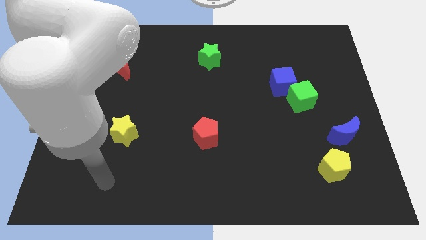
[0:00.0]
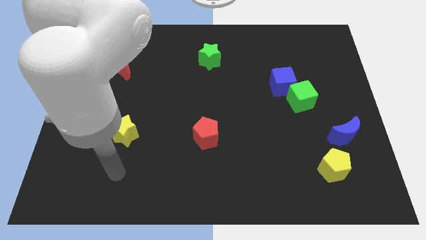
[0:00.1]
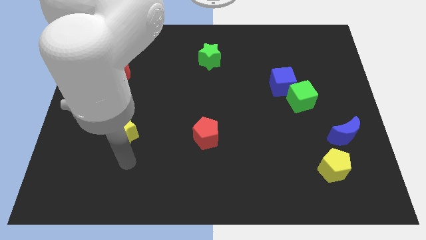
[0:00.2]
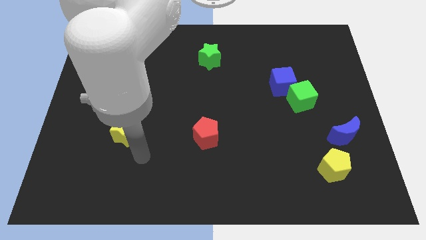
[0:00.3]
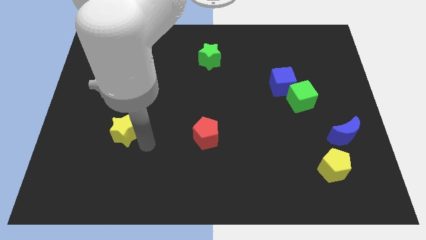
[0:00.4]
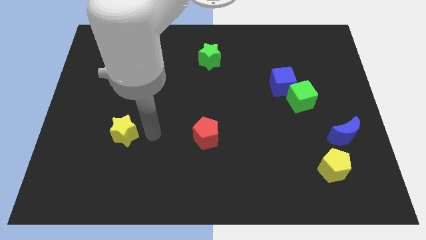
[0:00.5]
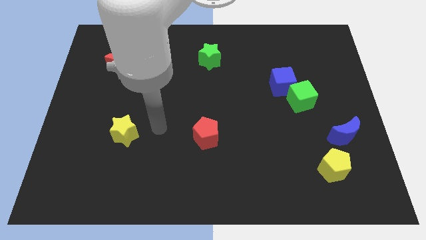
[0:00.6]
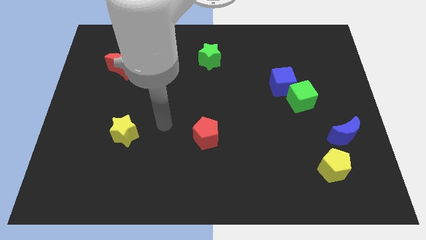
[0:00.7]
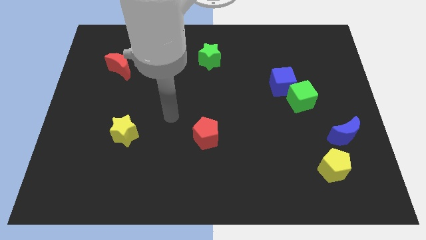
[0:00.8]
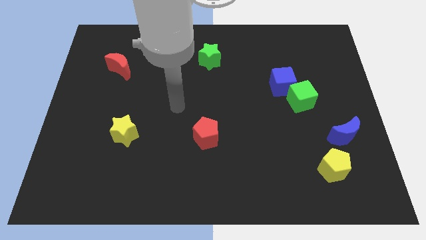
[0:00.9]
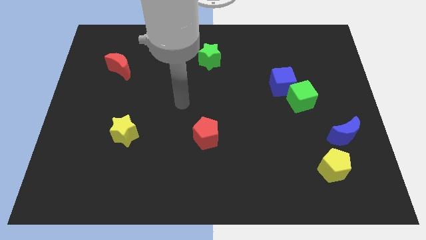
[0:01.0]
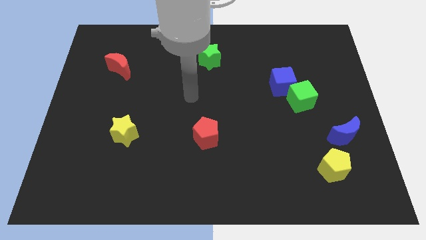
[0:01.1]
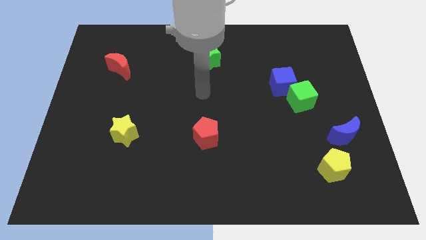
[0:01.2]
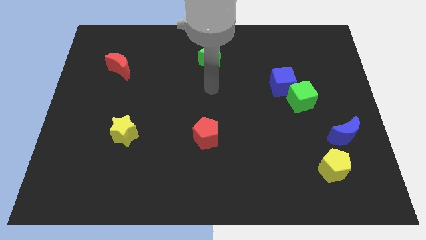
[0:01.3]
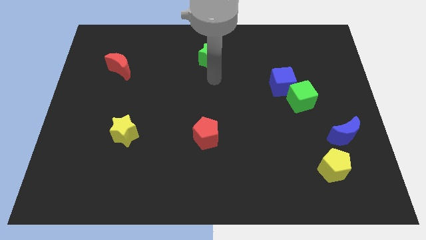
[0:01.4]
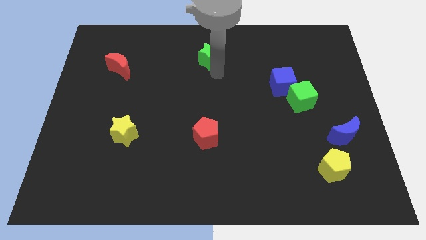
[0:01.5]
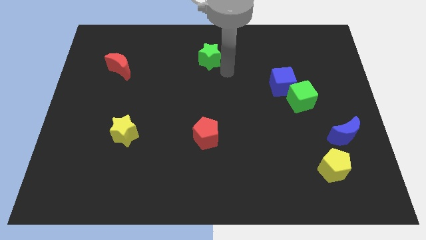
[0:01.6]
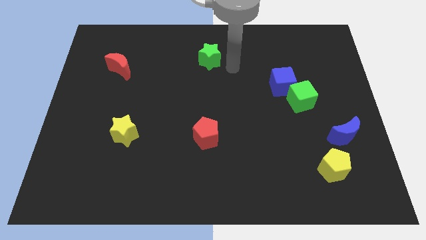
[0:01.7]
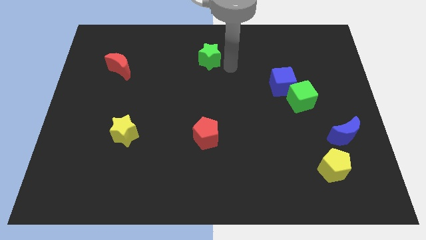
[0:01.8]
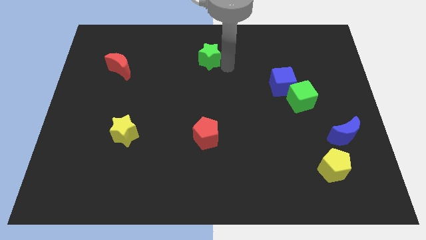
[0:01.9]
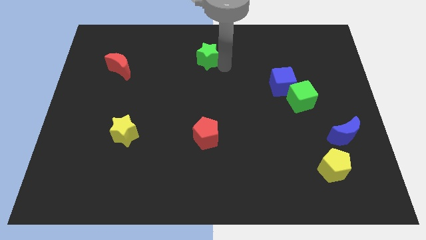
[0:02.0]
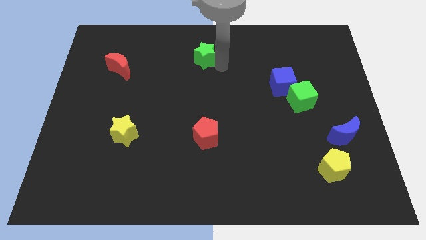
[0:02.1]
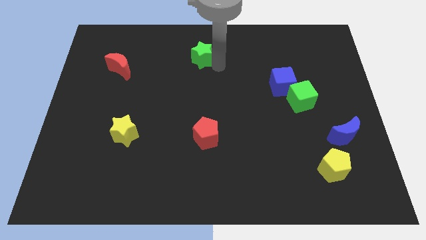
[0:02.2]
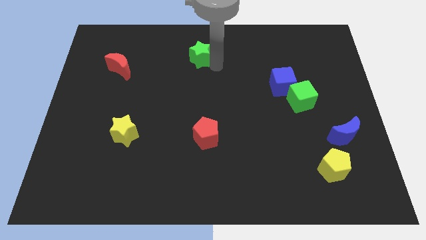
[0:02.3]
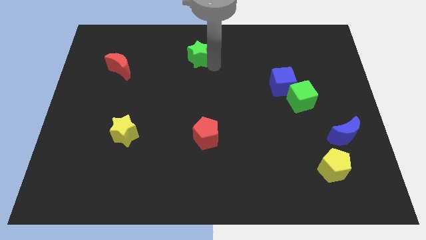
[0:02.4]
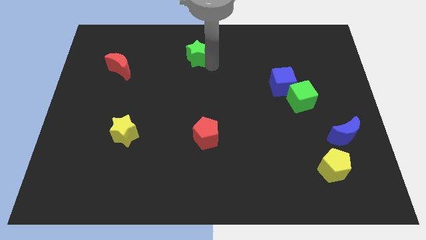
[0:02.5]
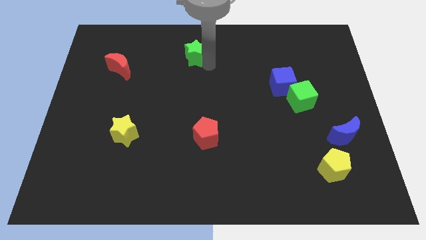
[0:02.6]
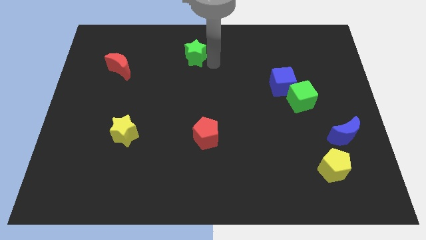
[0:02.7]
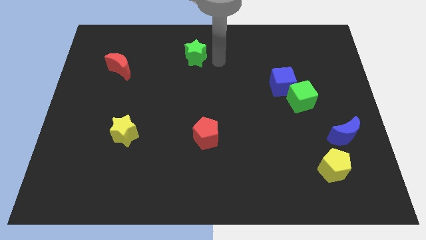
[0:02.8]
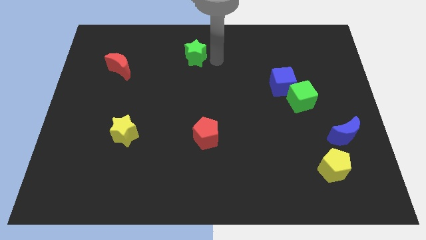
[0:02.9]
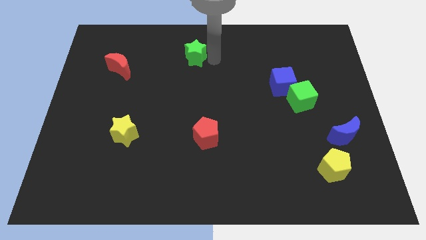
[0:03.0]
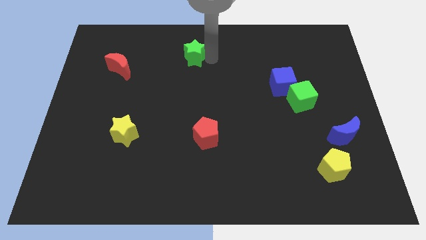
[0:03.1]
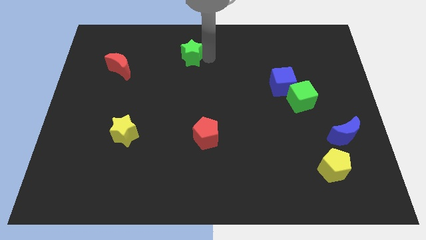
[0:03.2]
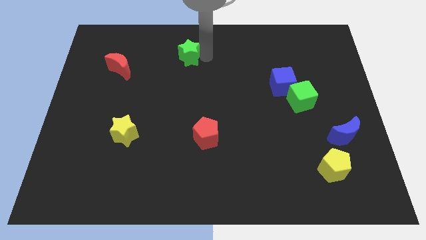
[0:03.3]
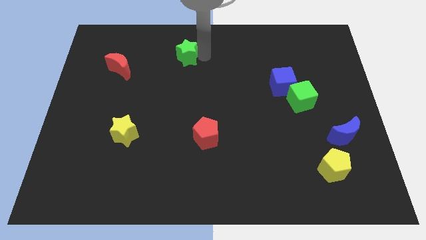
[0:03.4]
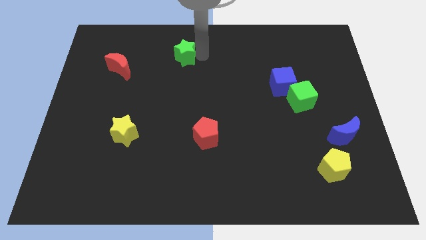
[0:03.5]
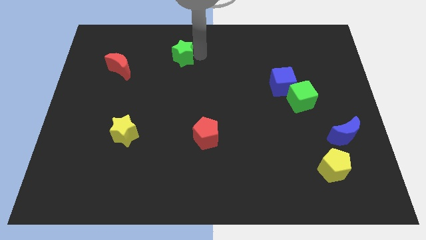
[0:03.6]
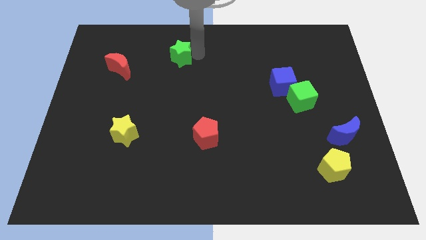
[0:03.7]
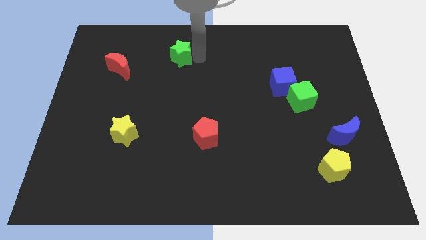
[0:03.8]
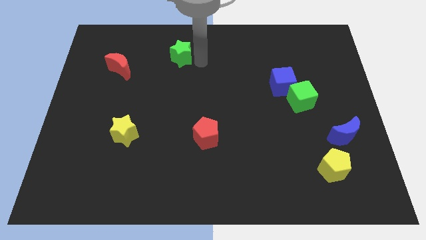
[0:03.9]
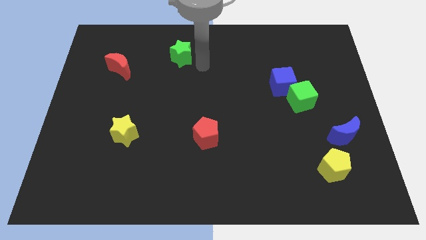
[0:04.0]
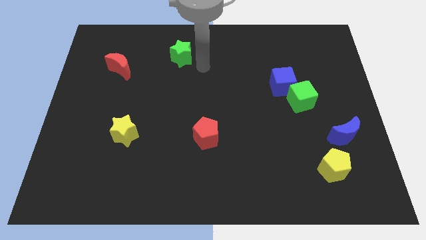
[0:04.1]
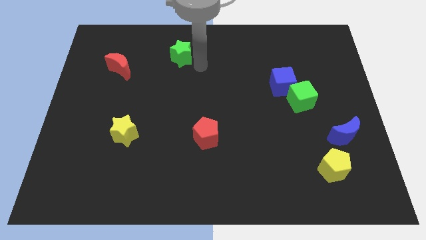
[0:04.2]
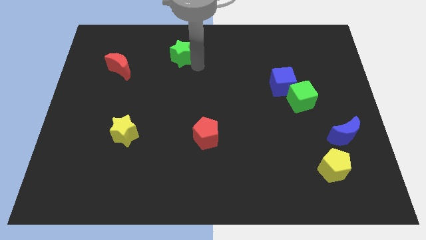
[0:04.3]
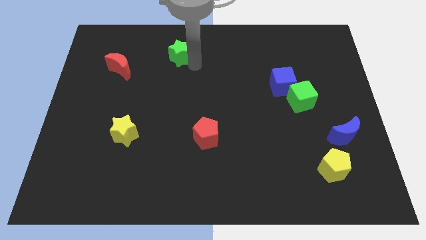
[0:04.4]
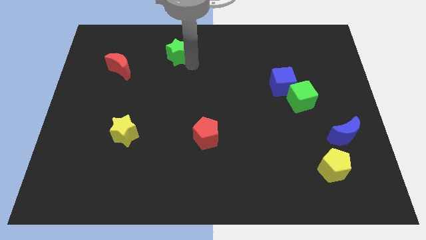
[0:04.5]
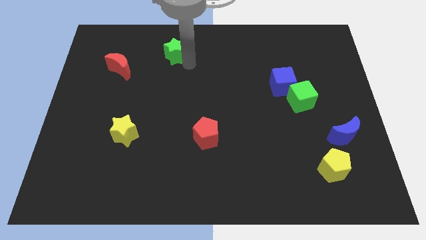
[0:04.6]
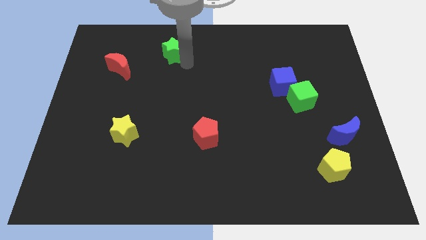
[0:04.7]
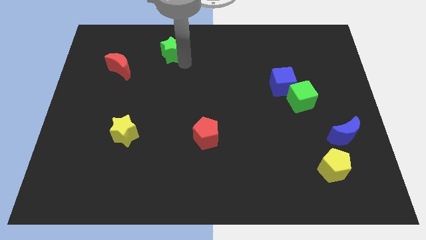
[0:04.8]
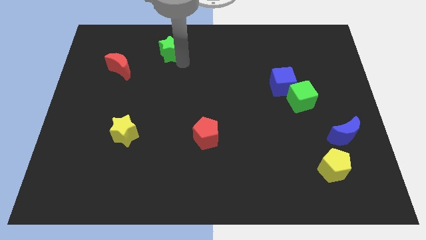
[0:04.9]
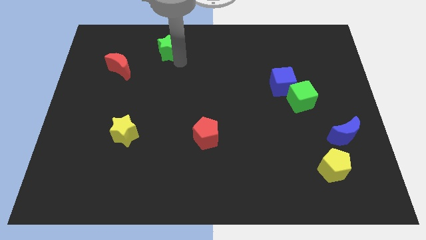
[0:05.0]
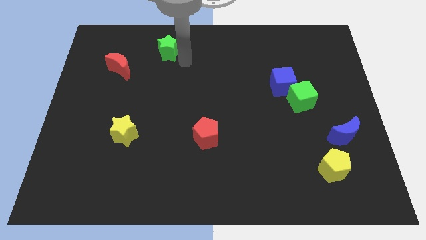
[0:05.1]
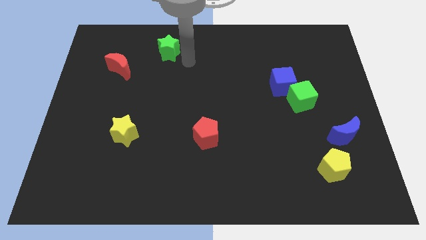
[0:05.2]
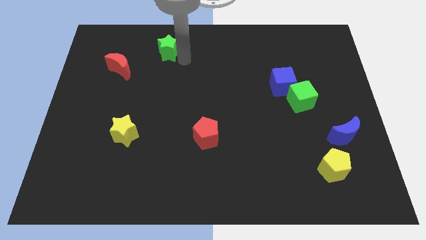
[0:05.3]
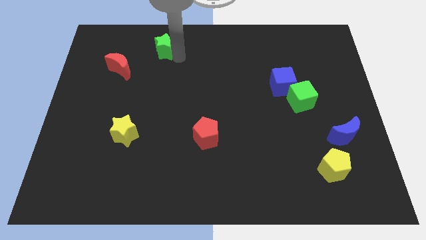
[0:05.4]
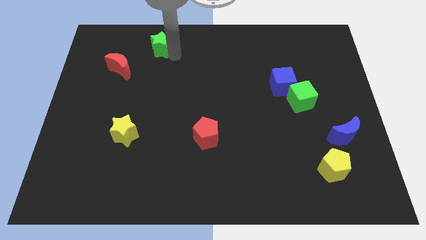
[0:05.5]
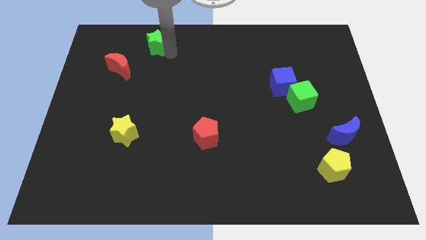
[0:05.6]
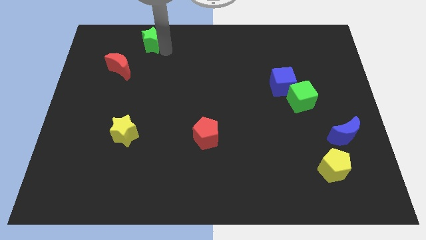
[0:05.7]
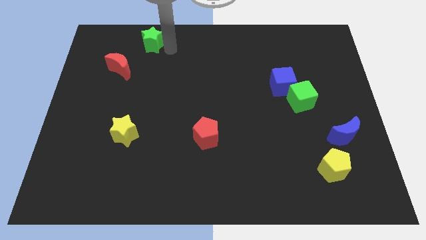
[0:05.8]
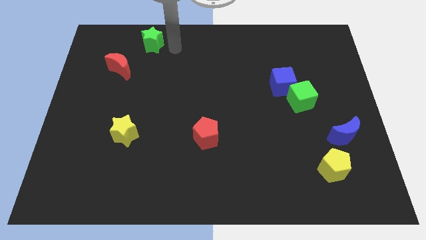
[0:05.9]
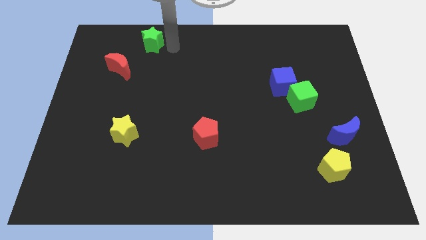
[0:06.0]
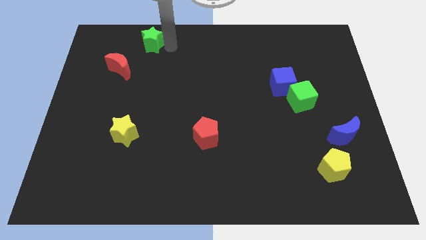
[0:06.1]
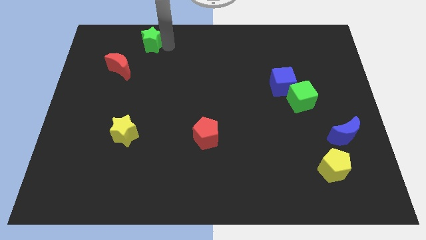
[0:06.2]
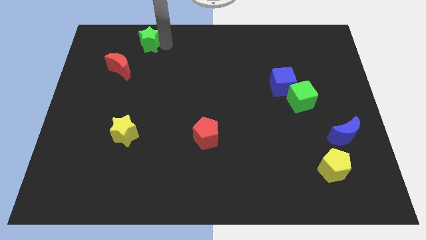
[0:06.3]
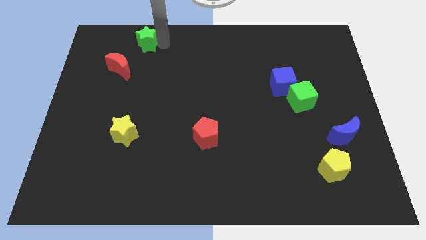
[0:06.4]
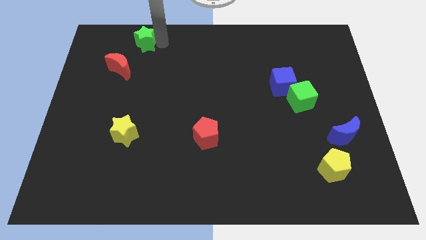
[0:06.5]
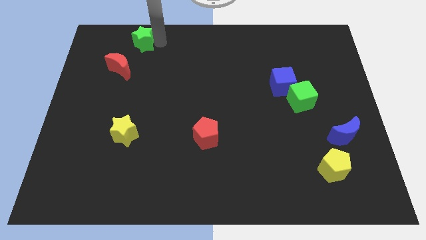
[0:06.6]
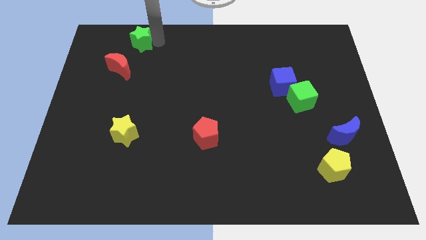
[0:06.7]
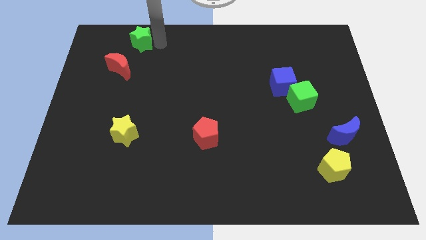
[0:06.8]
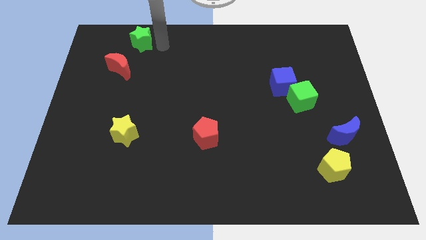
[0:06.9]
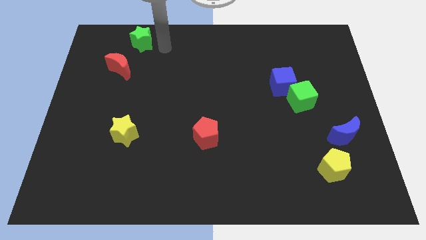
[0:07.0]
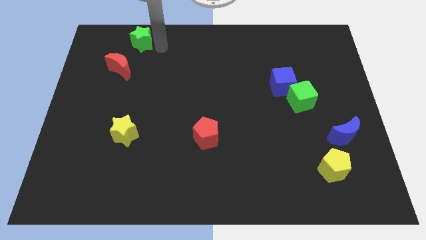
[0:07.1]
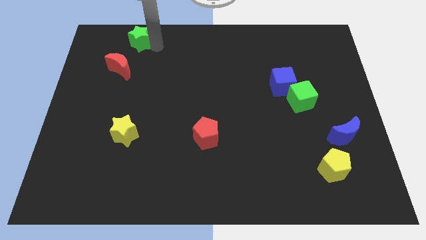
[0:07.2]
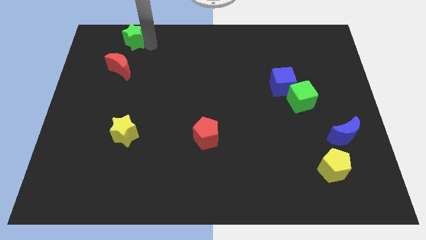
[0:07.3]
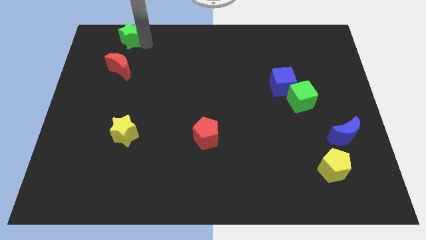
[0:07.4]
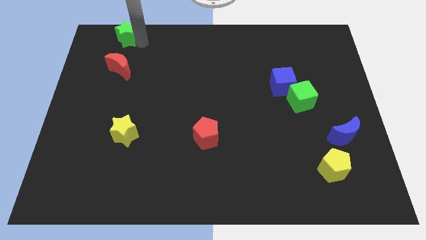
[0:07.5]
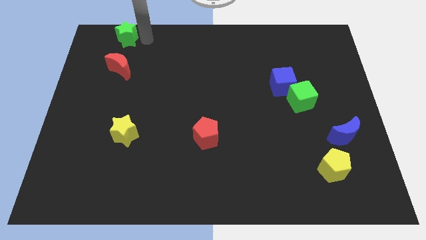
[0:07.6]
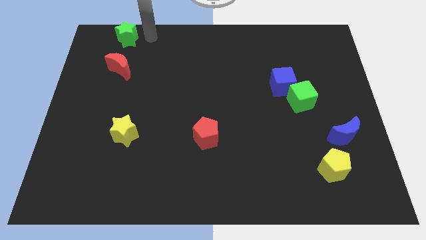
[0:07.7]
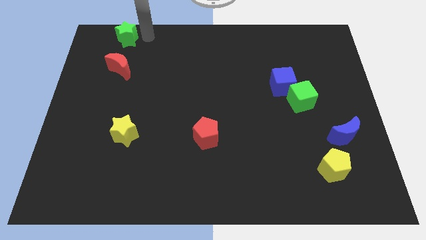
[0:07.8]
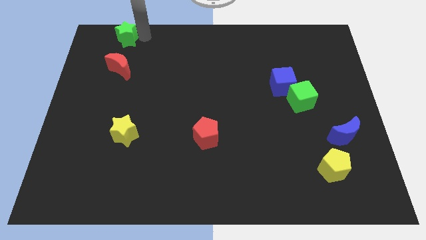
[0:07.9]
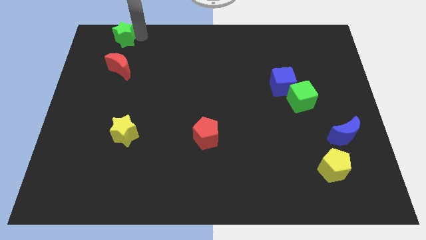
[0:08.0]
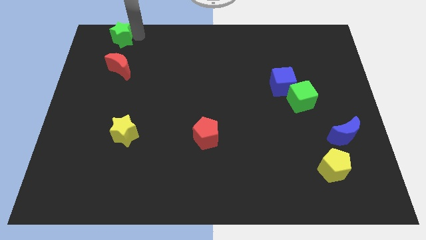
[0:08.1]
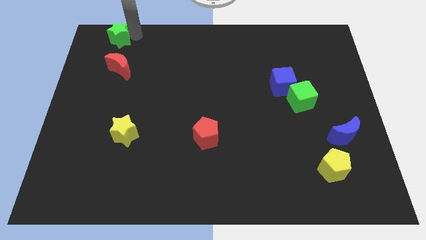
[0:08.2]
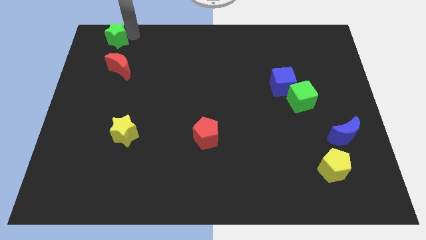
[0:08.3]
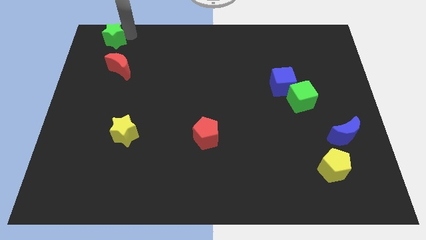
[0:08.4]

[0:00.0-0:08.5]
move the green star to the top left of the board
